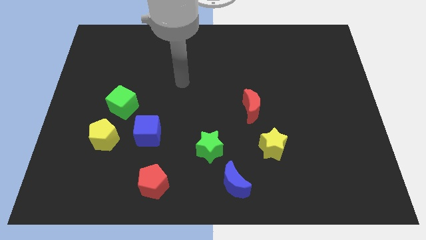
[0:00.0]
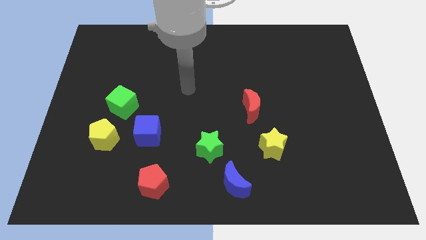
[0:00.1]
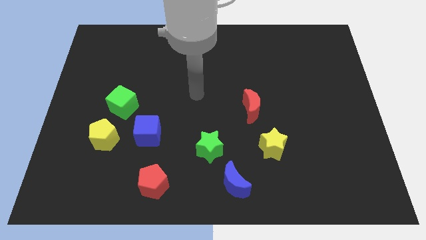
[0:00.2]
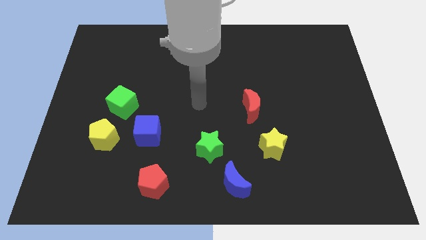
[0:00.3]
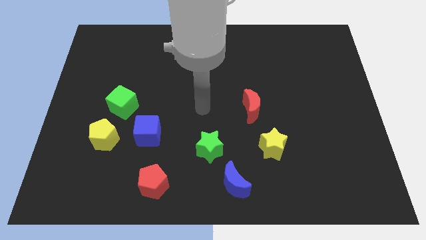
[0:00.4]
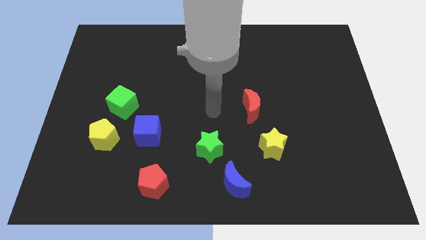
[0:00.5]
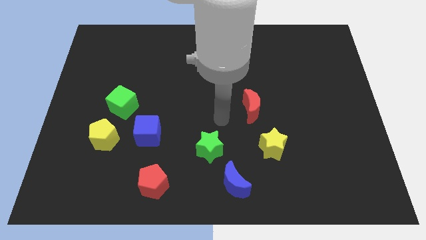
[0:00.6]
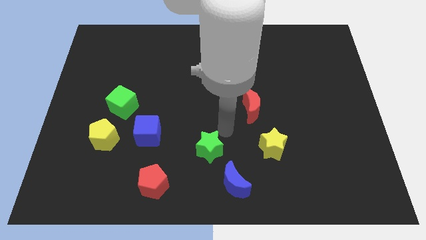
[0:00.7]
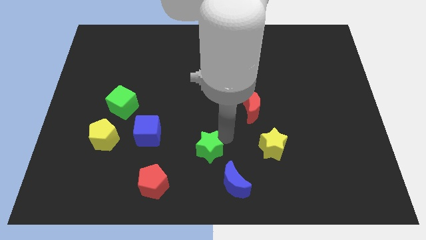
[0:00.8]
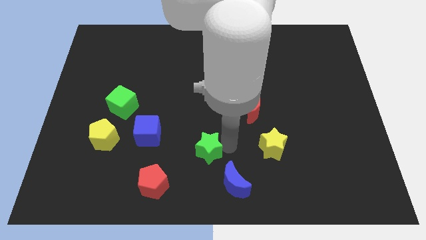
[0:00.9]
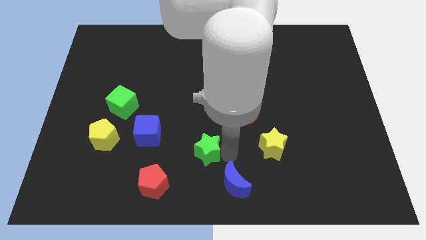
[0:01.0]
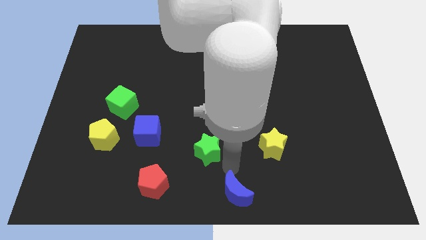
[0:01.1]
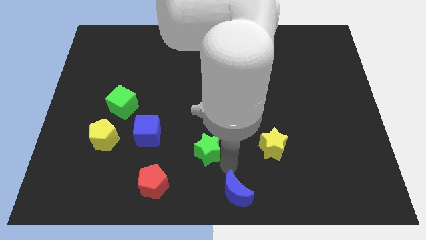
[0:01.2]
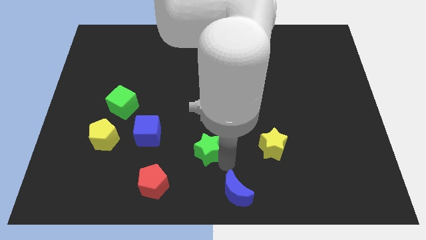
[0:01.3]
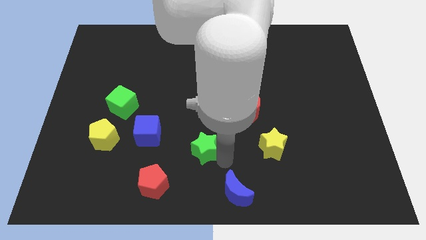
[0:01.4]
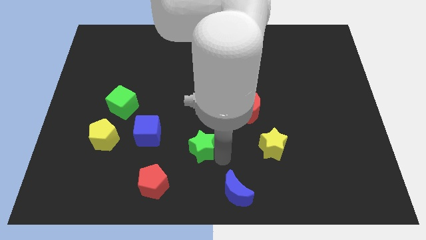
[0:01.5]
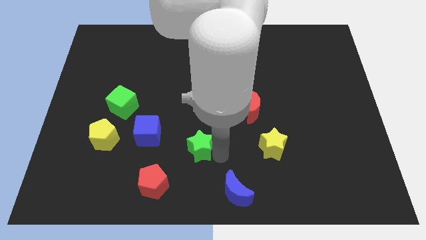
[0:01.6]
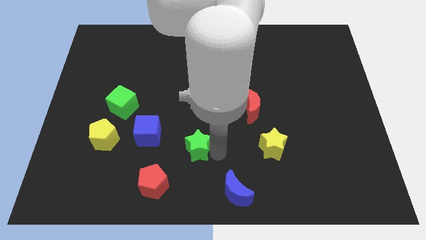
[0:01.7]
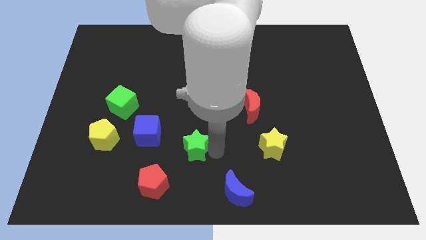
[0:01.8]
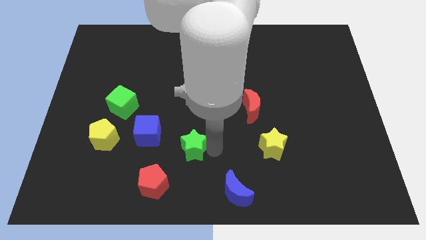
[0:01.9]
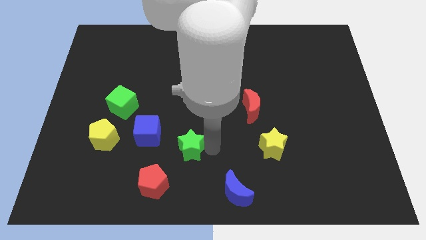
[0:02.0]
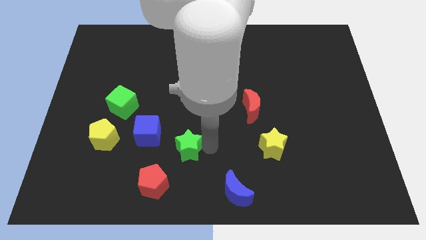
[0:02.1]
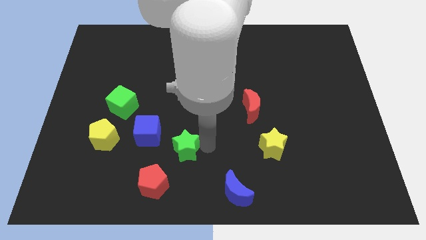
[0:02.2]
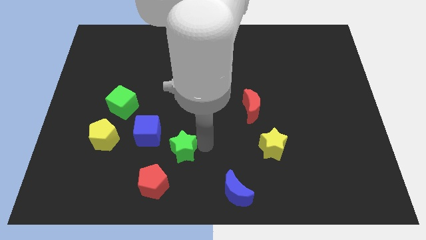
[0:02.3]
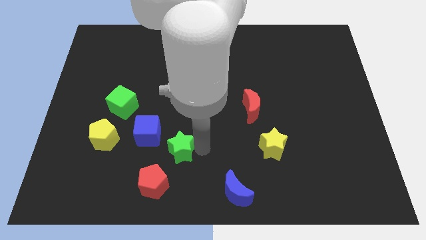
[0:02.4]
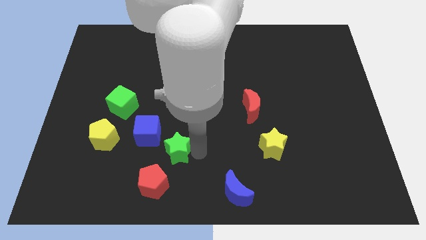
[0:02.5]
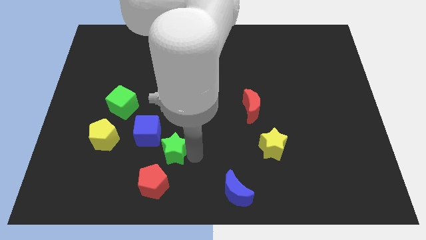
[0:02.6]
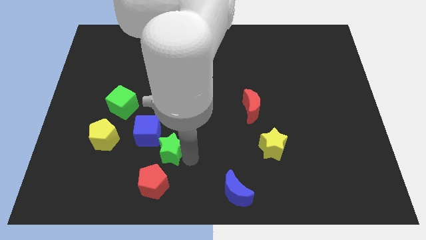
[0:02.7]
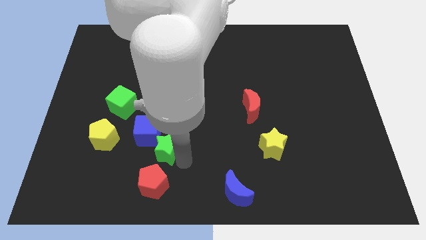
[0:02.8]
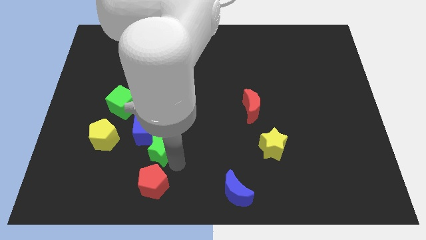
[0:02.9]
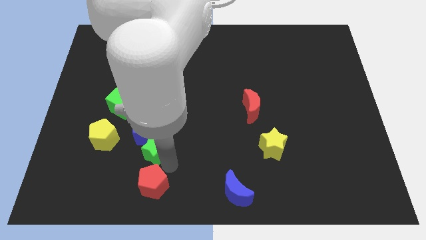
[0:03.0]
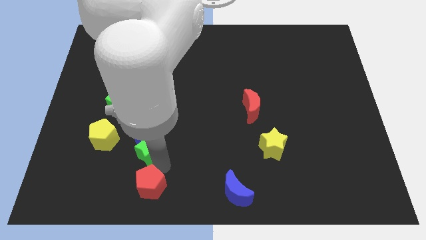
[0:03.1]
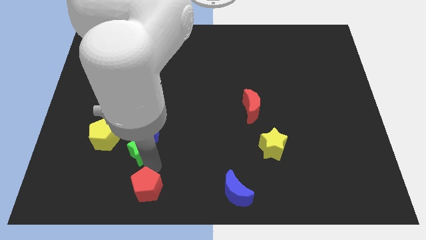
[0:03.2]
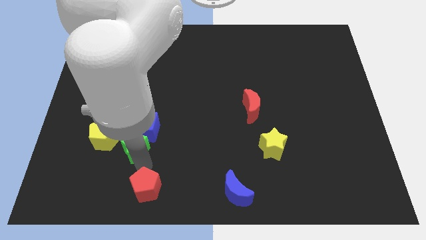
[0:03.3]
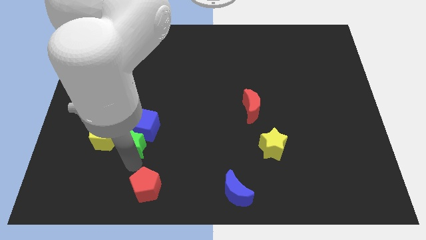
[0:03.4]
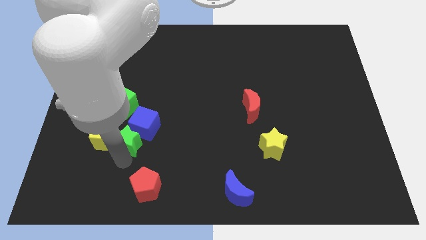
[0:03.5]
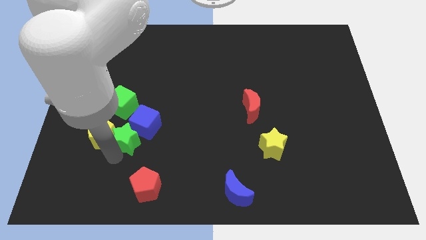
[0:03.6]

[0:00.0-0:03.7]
slide the green star slightly up and to the left diagonally

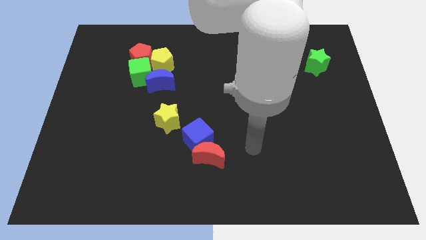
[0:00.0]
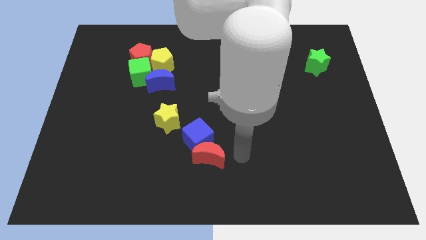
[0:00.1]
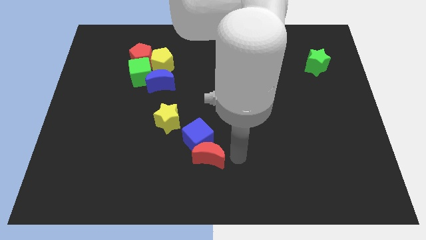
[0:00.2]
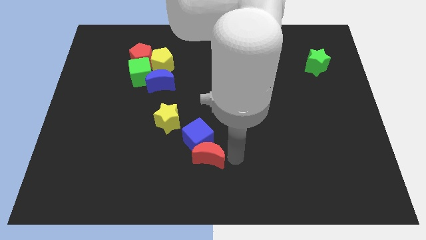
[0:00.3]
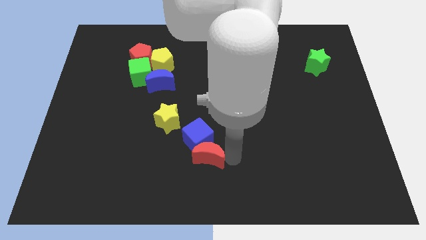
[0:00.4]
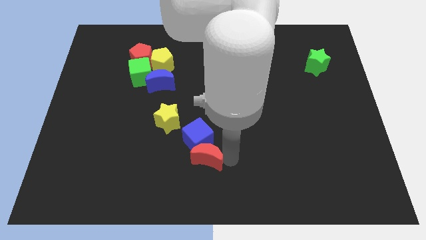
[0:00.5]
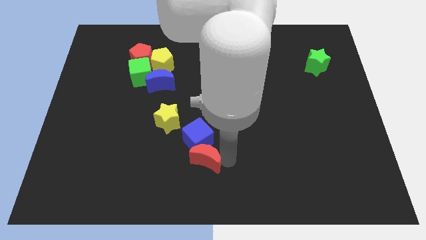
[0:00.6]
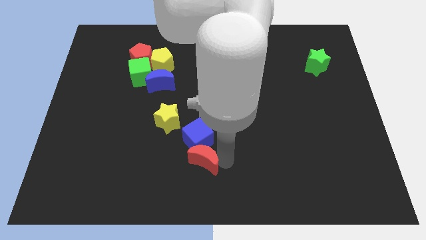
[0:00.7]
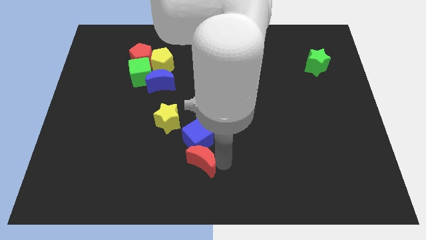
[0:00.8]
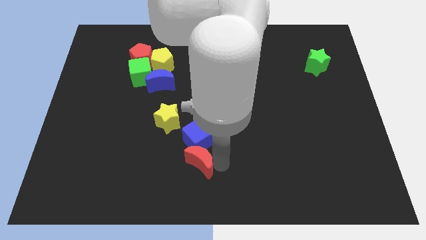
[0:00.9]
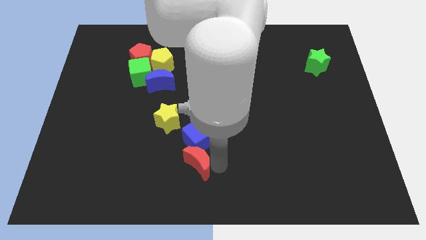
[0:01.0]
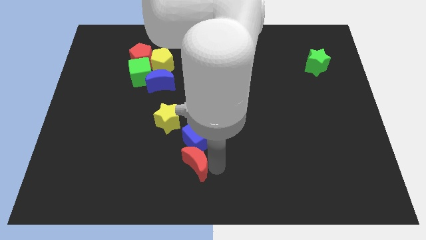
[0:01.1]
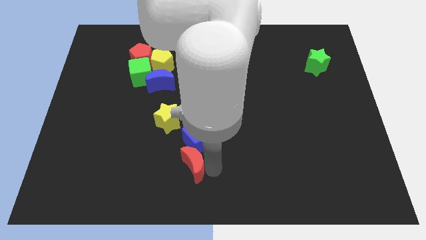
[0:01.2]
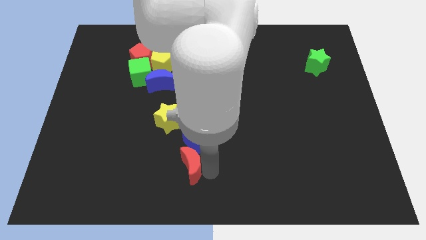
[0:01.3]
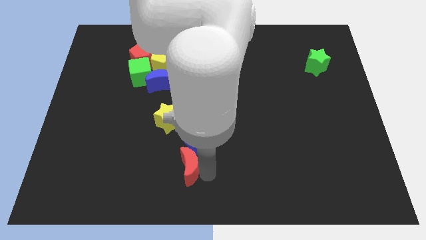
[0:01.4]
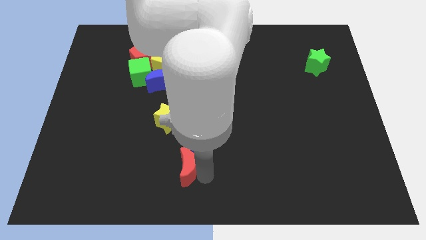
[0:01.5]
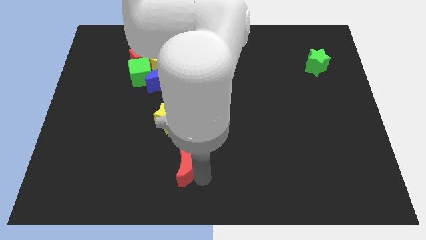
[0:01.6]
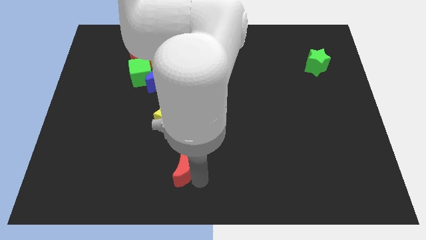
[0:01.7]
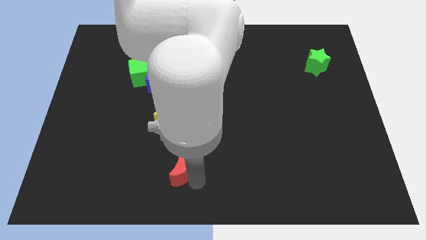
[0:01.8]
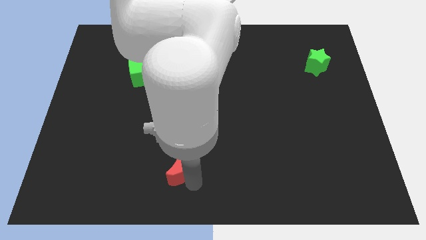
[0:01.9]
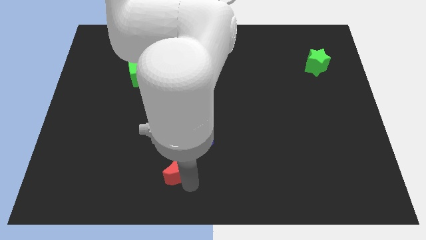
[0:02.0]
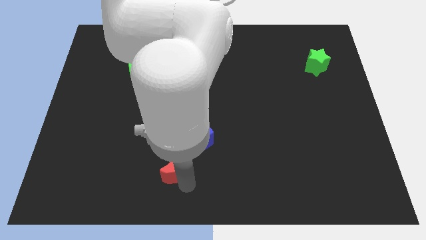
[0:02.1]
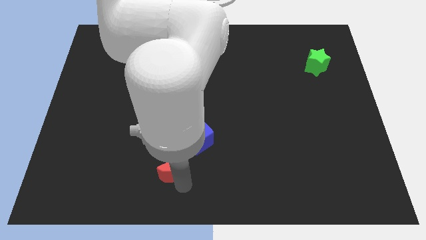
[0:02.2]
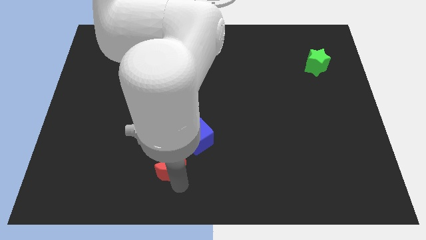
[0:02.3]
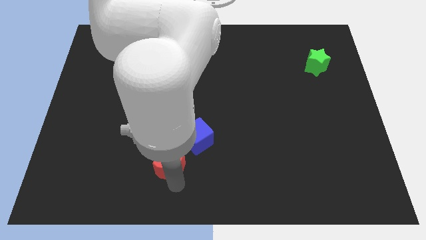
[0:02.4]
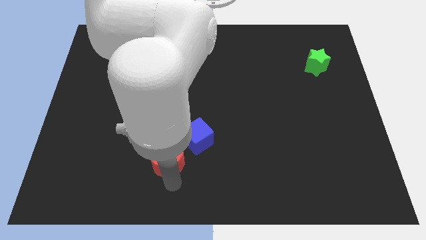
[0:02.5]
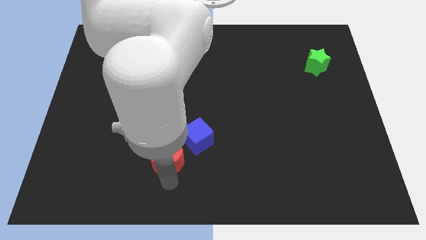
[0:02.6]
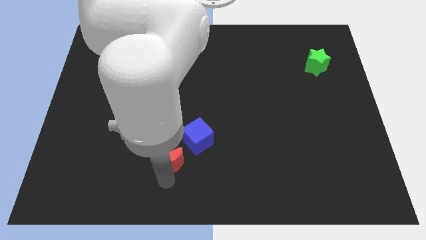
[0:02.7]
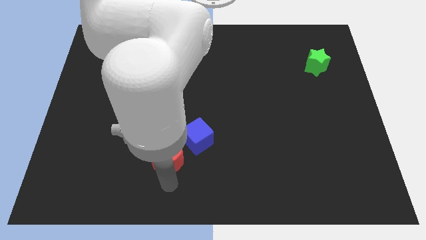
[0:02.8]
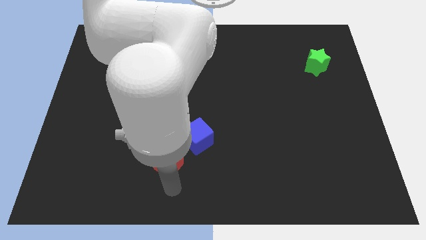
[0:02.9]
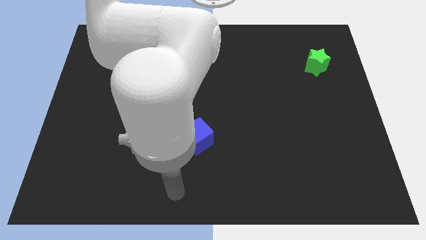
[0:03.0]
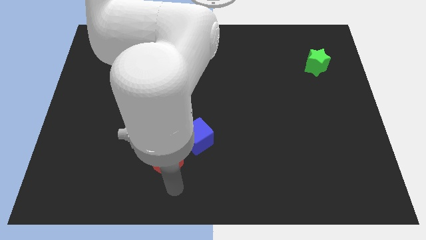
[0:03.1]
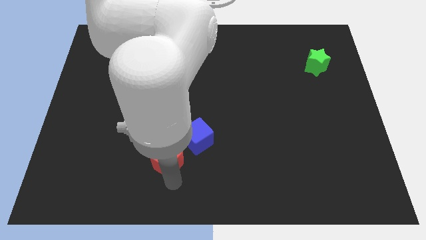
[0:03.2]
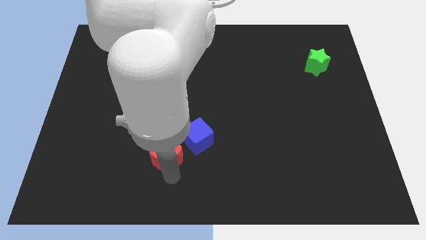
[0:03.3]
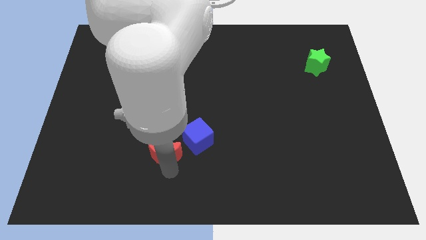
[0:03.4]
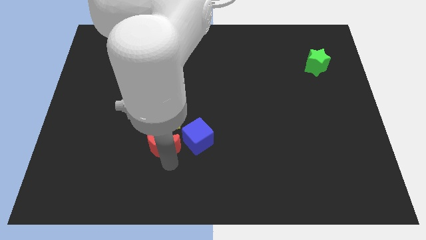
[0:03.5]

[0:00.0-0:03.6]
slide the red moon a little upwards and left

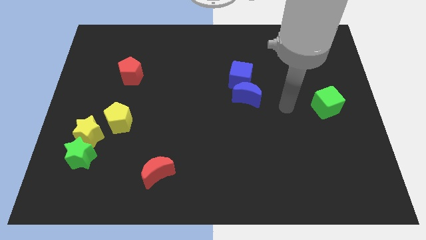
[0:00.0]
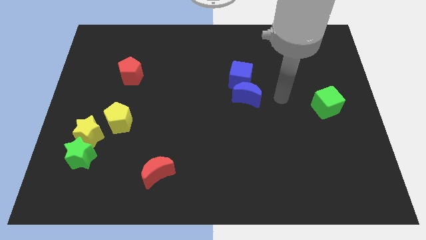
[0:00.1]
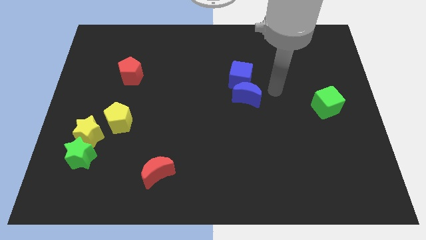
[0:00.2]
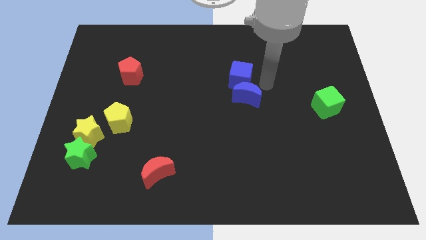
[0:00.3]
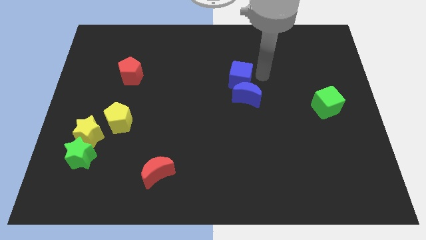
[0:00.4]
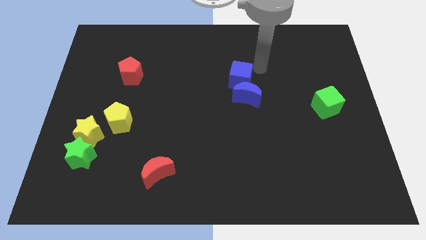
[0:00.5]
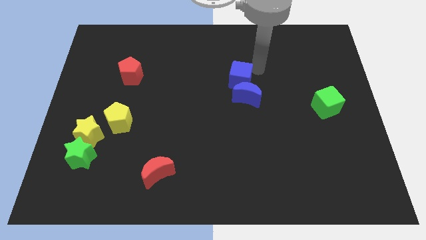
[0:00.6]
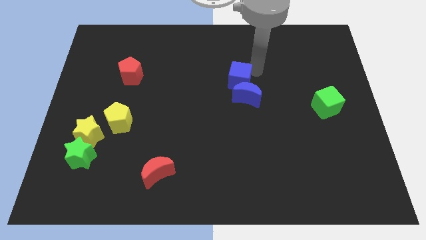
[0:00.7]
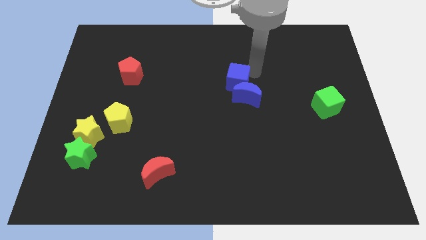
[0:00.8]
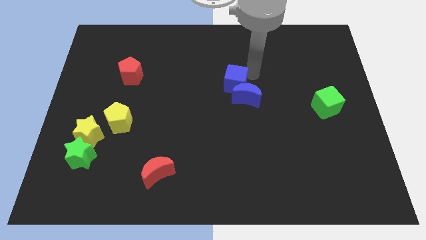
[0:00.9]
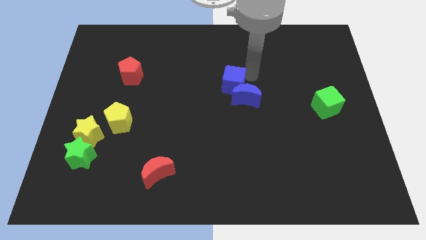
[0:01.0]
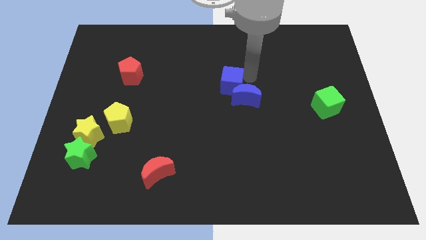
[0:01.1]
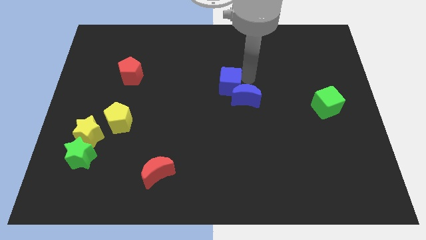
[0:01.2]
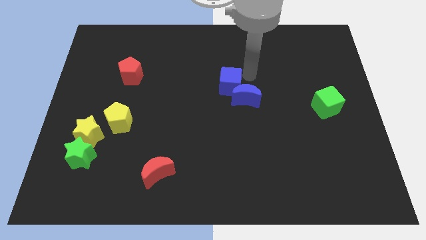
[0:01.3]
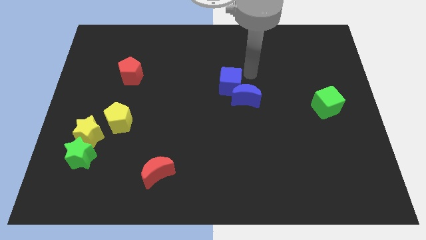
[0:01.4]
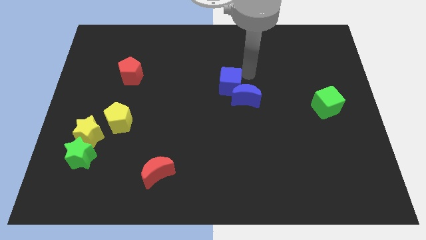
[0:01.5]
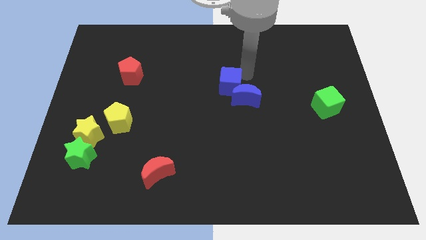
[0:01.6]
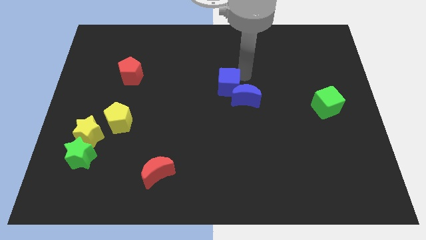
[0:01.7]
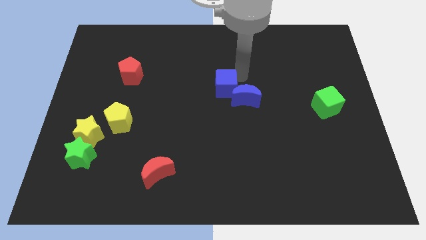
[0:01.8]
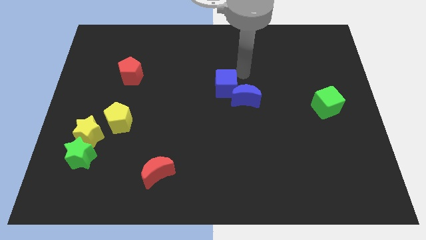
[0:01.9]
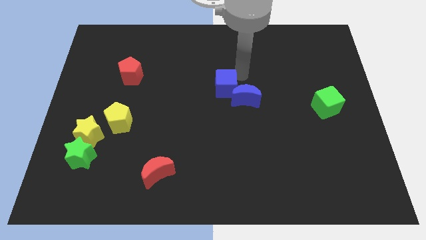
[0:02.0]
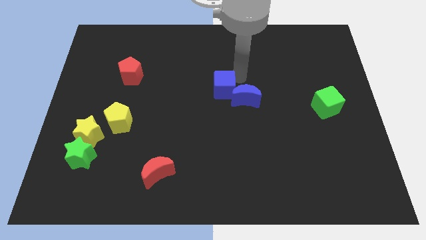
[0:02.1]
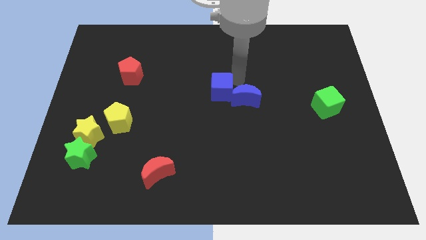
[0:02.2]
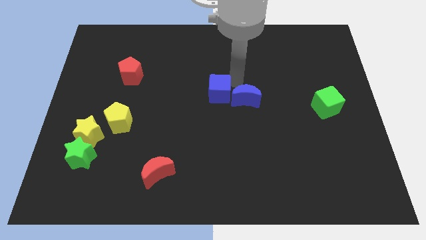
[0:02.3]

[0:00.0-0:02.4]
slightly move the blue cube down and then to the left
